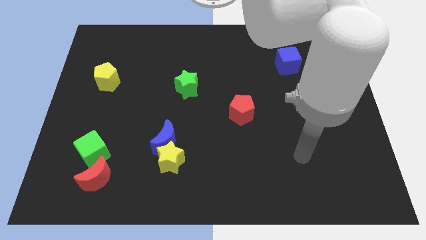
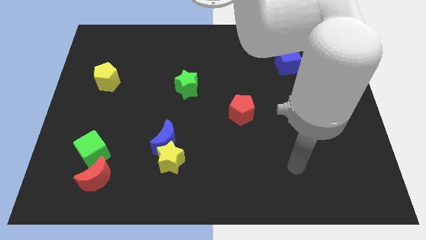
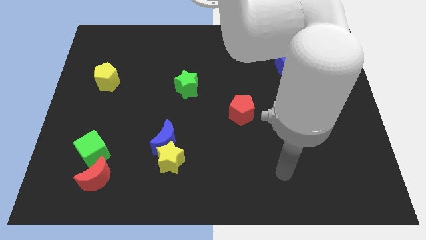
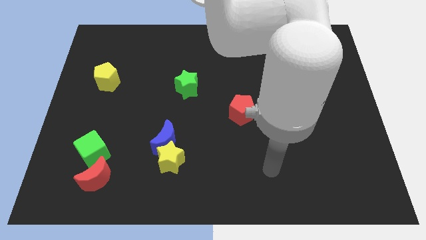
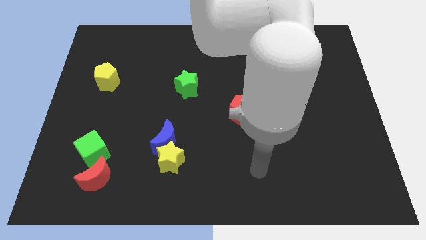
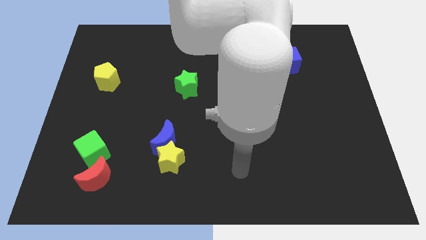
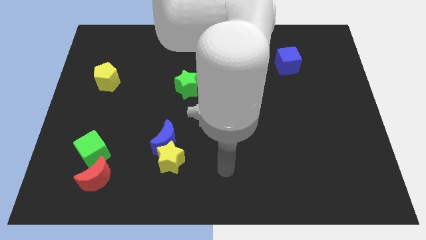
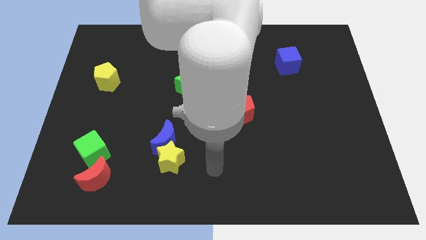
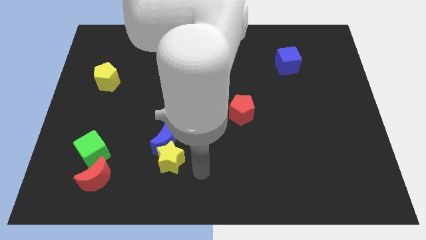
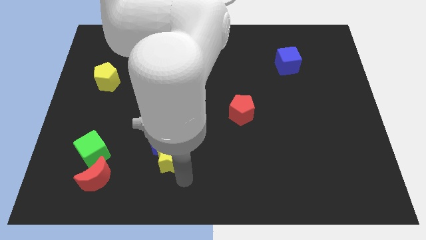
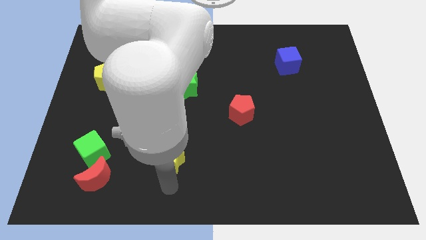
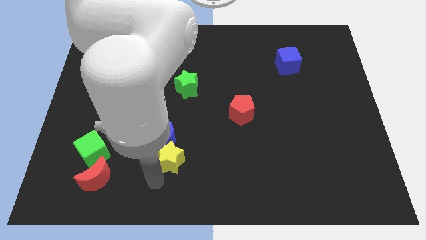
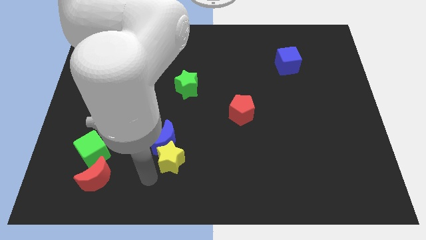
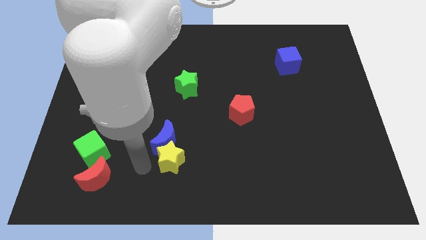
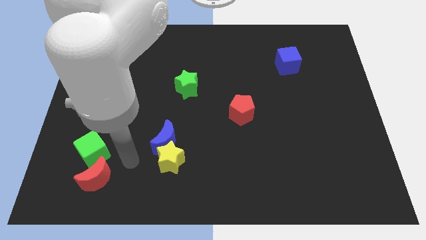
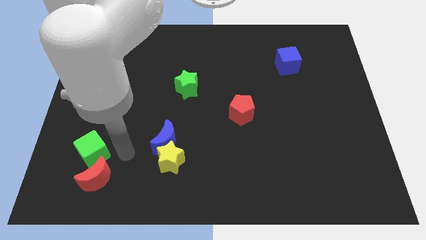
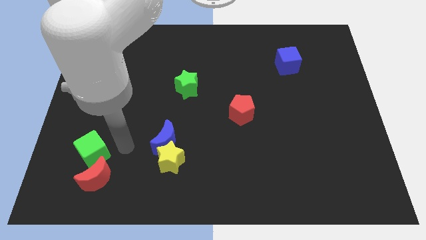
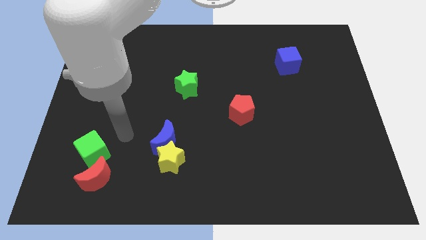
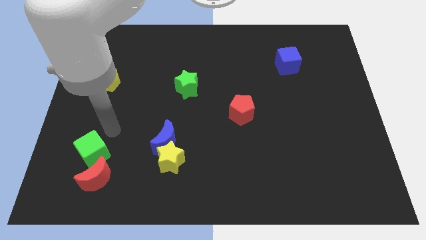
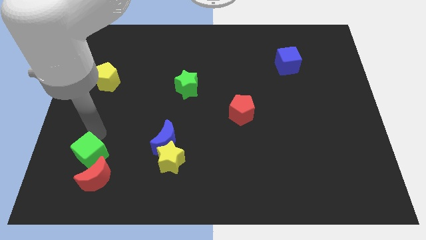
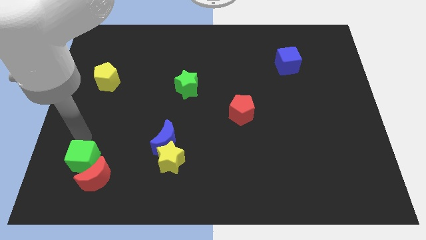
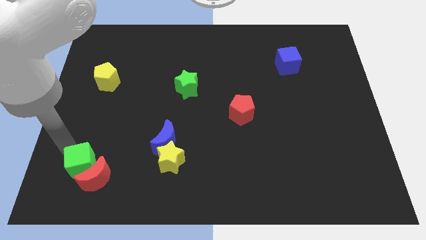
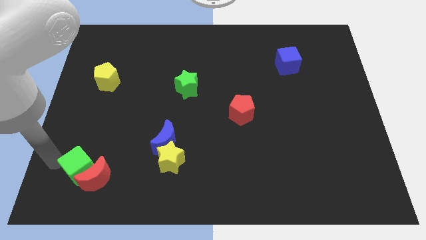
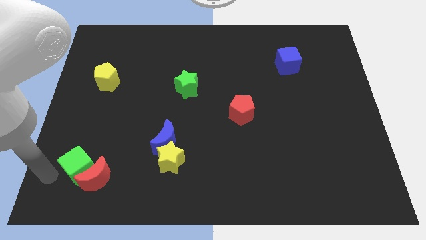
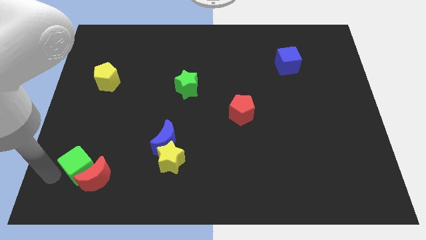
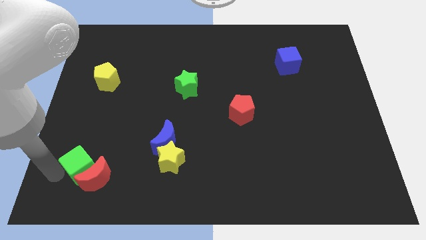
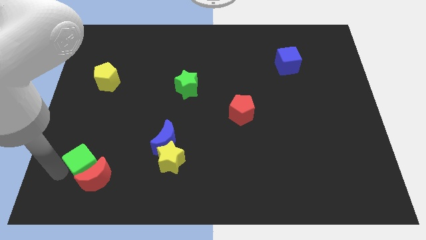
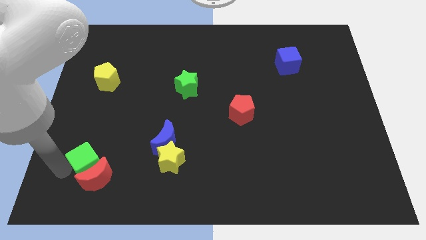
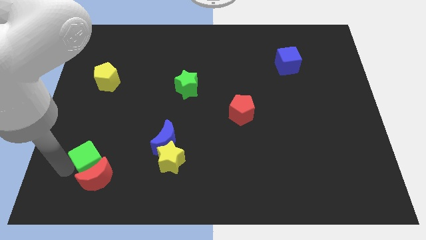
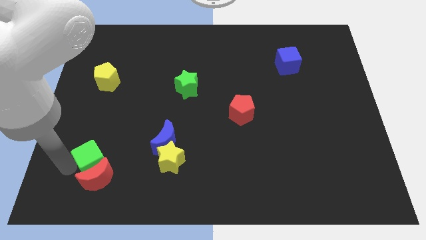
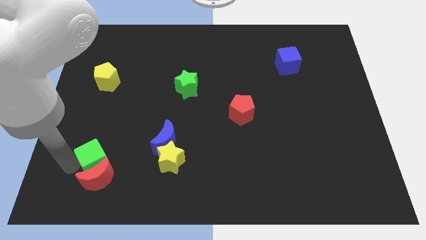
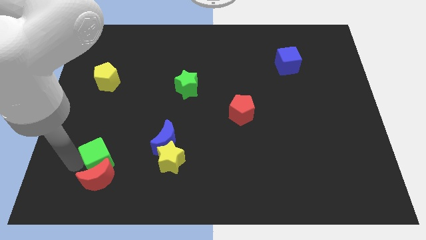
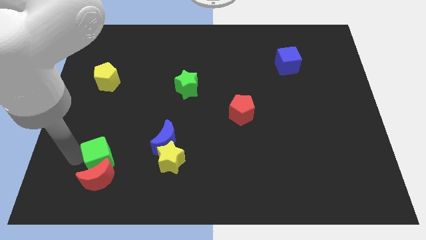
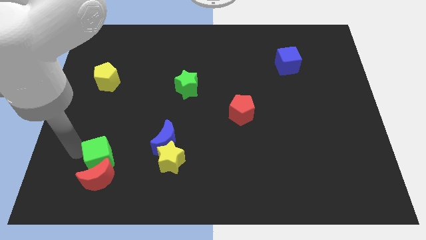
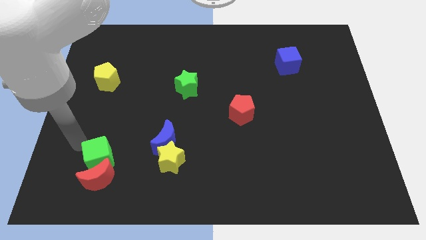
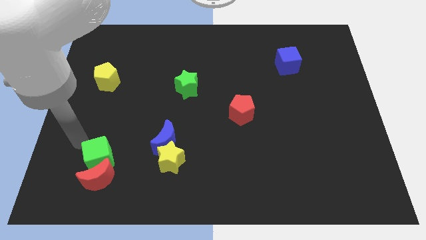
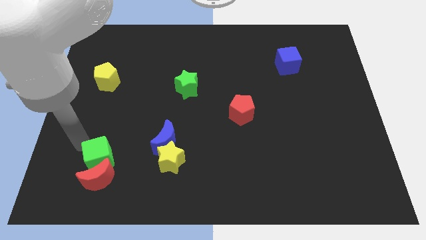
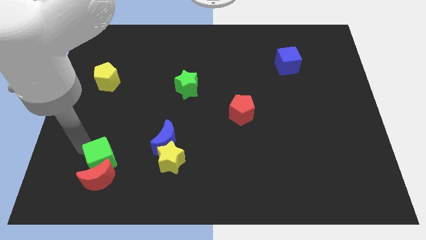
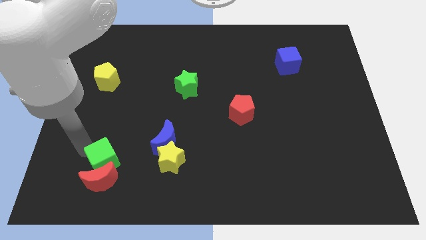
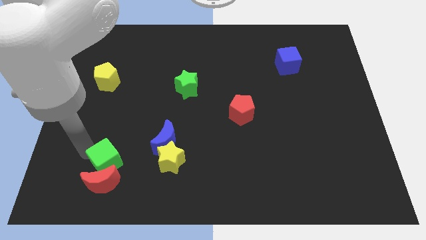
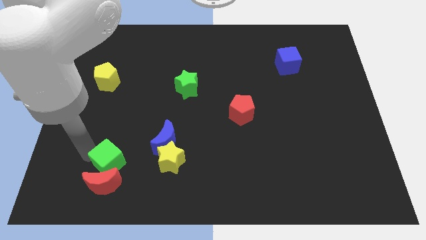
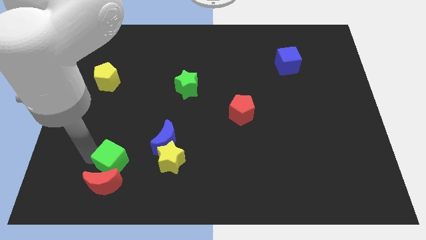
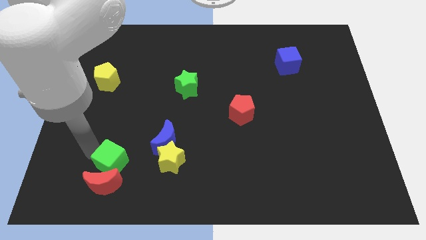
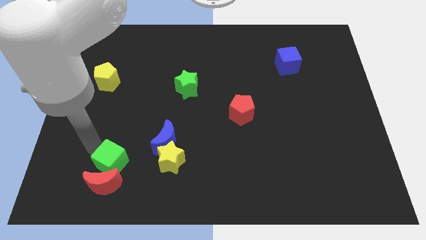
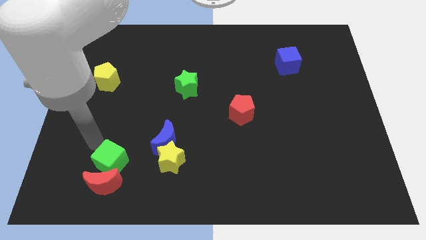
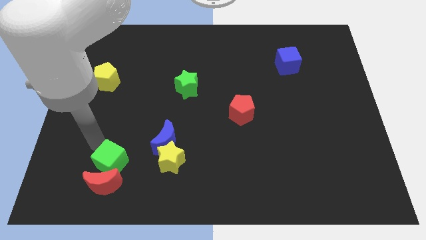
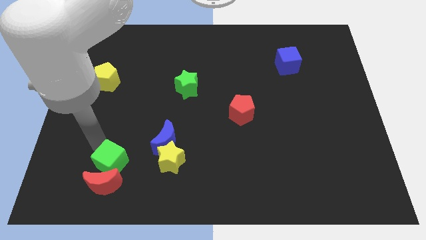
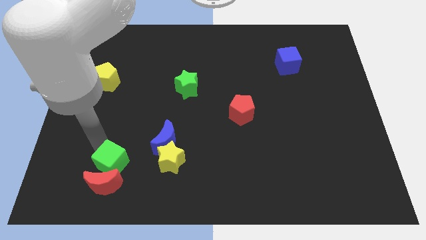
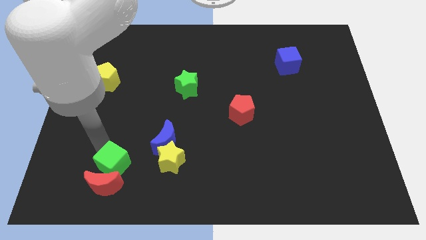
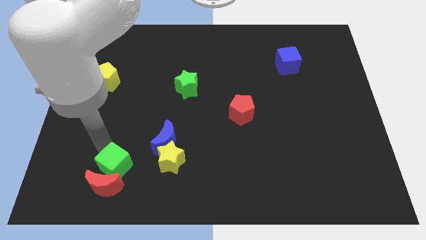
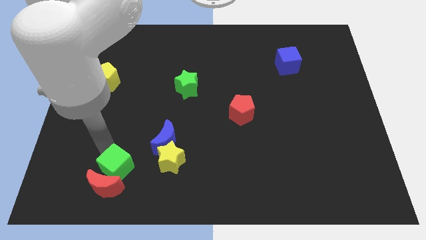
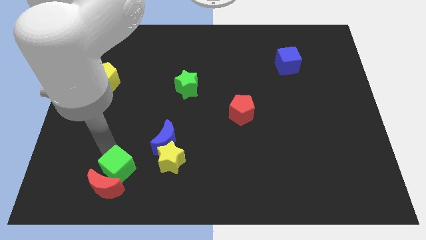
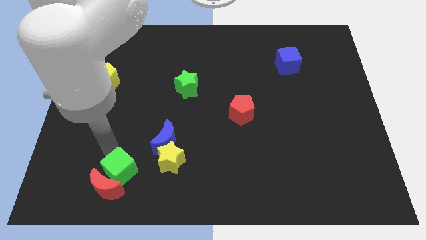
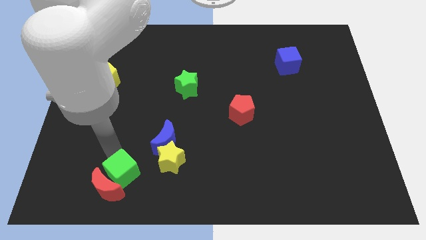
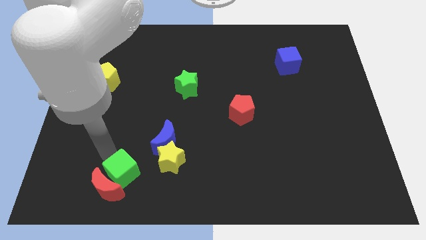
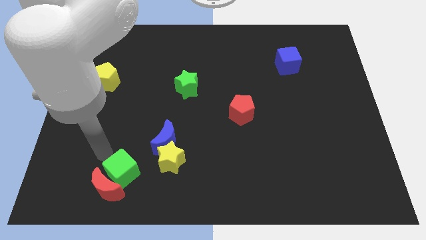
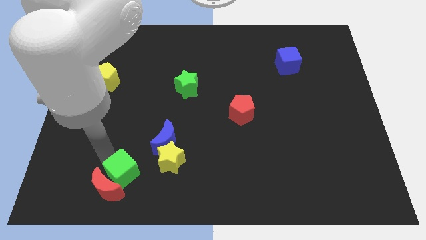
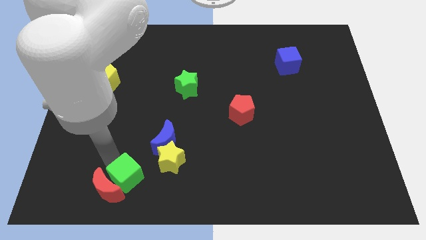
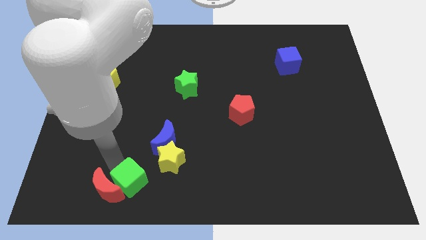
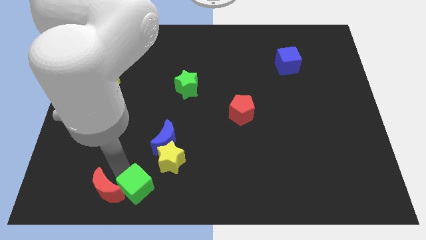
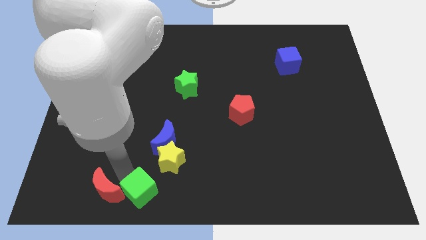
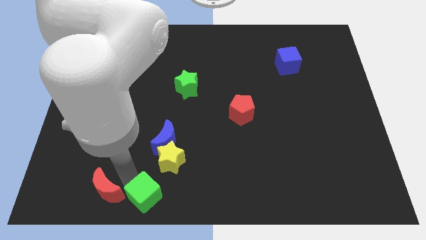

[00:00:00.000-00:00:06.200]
move the green cube to the bottom
